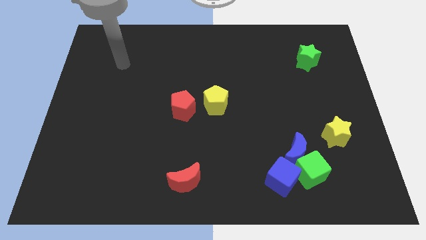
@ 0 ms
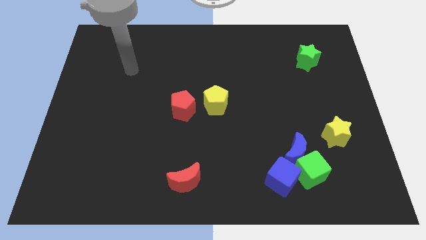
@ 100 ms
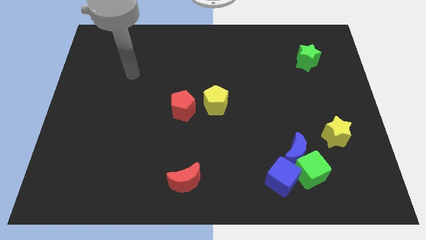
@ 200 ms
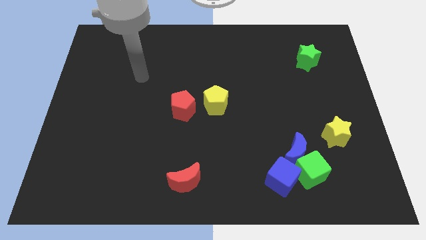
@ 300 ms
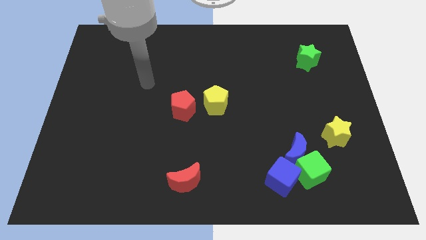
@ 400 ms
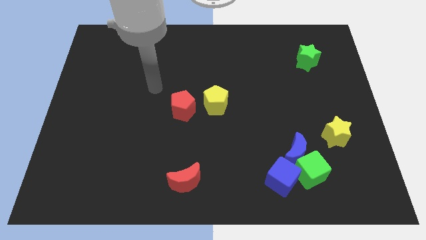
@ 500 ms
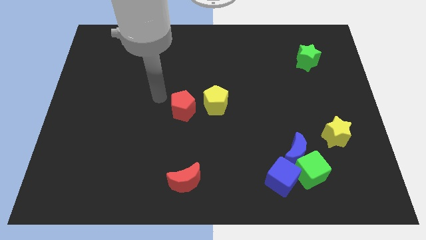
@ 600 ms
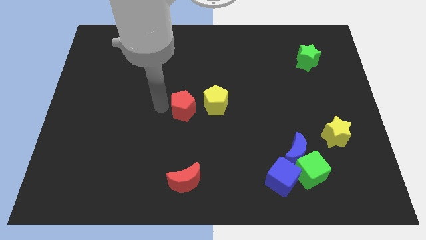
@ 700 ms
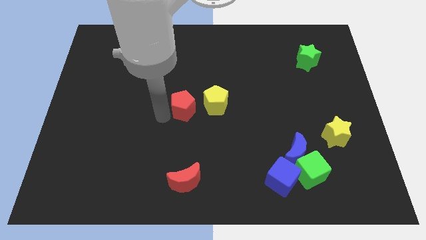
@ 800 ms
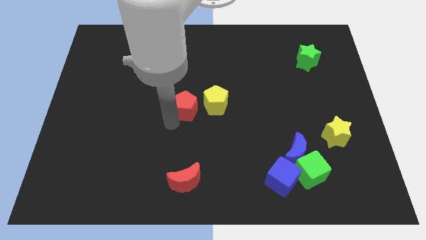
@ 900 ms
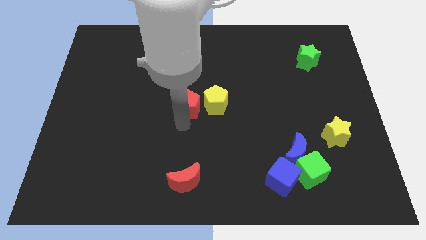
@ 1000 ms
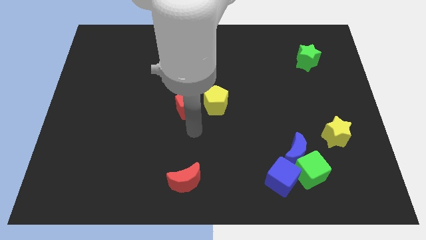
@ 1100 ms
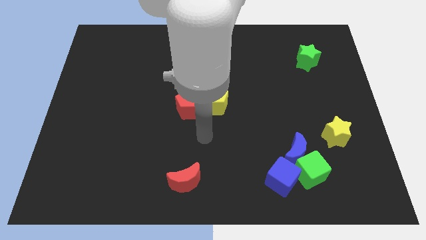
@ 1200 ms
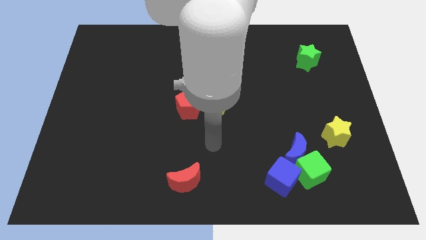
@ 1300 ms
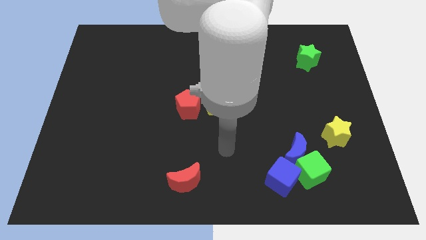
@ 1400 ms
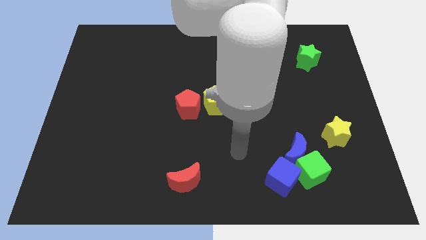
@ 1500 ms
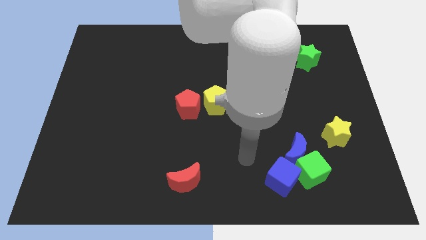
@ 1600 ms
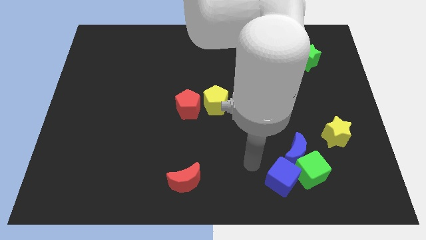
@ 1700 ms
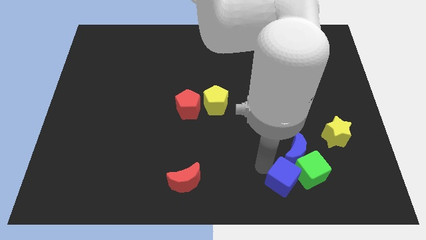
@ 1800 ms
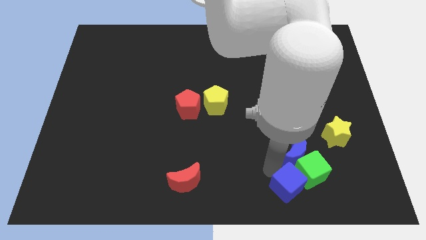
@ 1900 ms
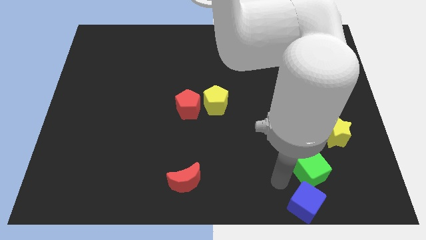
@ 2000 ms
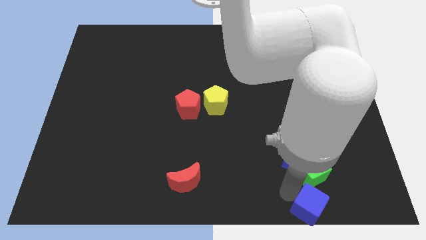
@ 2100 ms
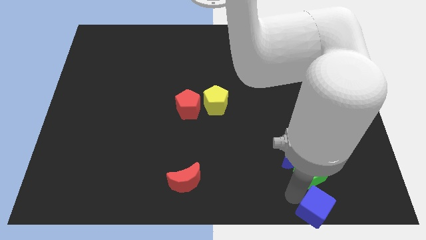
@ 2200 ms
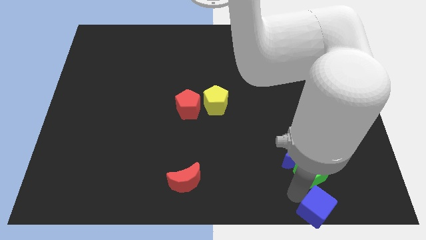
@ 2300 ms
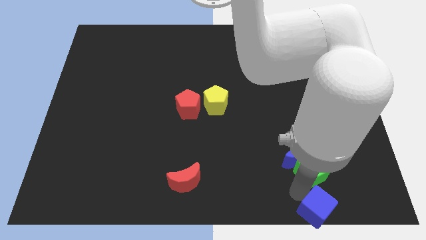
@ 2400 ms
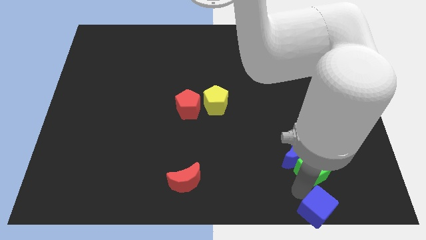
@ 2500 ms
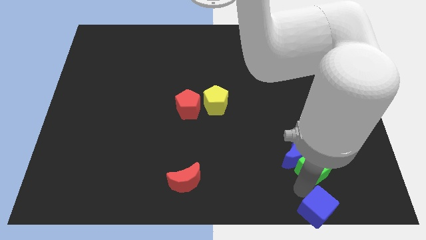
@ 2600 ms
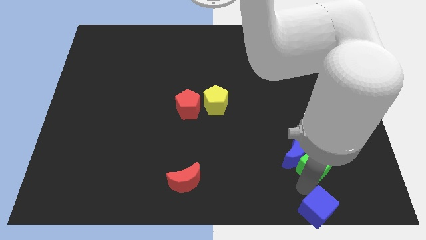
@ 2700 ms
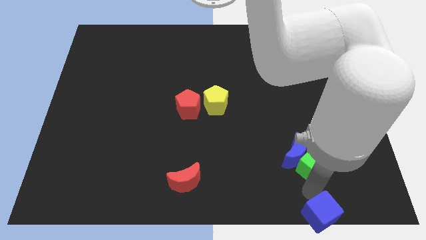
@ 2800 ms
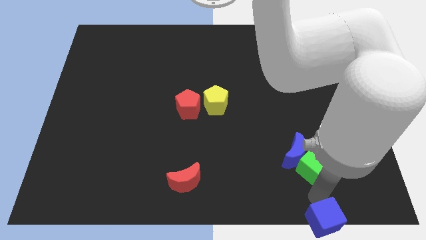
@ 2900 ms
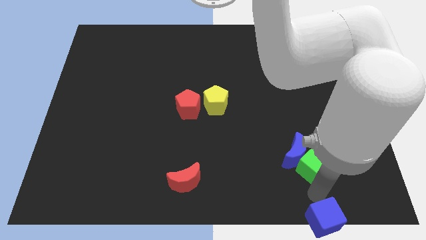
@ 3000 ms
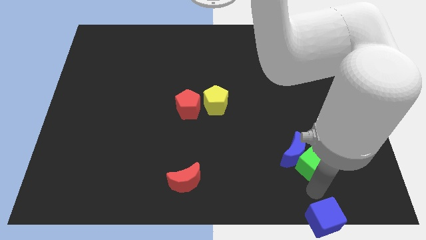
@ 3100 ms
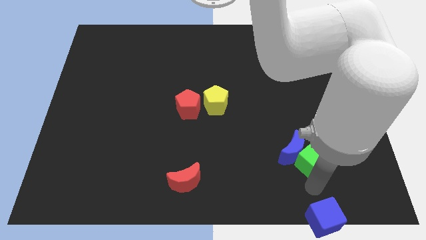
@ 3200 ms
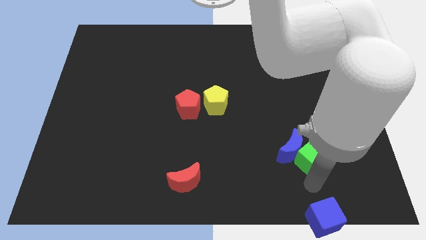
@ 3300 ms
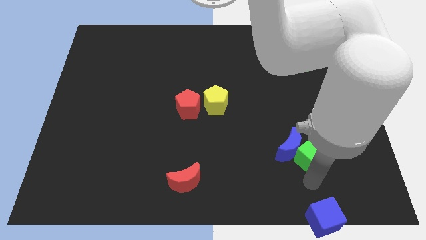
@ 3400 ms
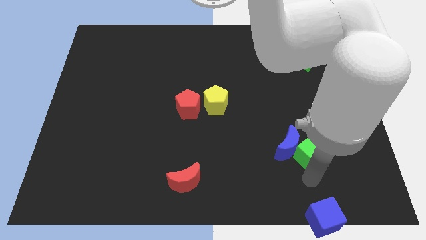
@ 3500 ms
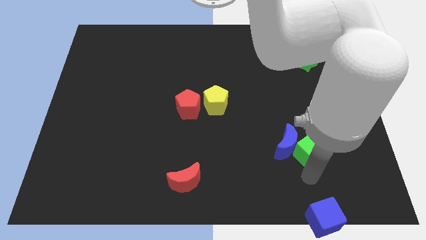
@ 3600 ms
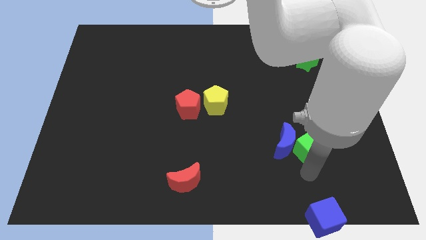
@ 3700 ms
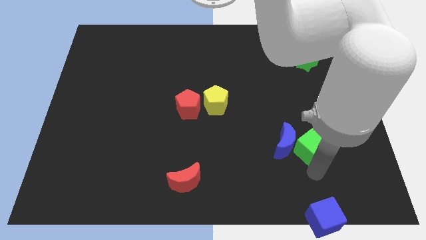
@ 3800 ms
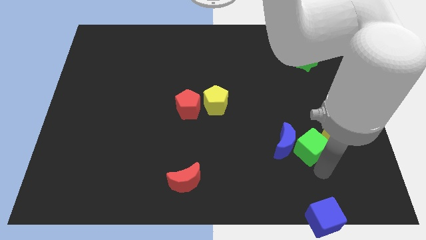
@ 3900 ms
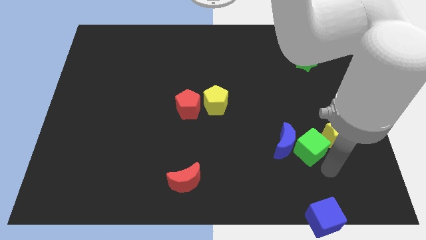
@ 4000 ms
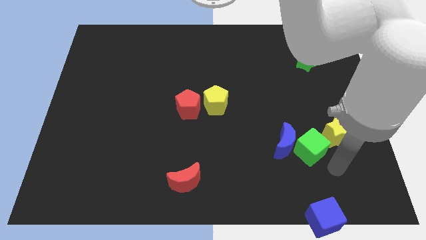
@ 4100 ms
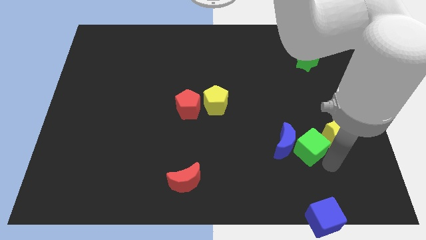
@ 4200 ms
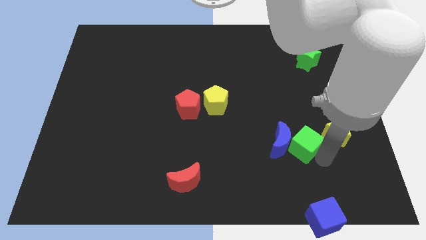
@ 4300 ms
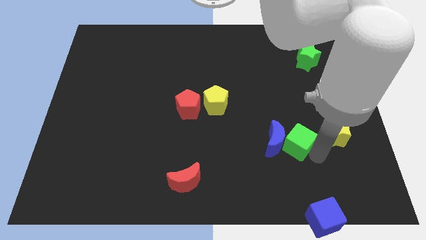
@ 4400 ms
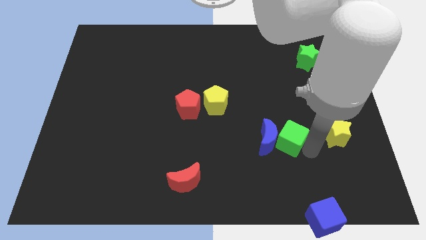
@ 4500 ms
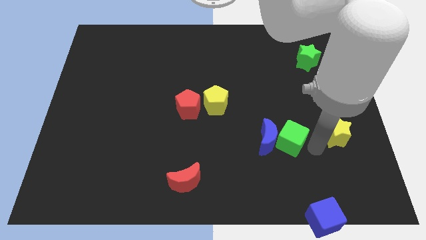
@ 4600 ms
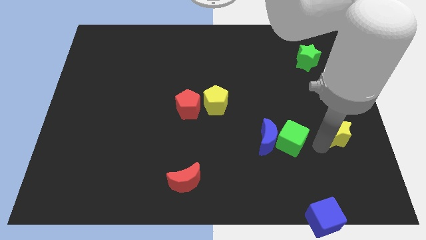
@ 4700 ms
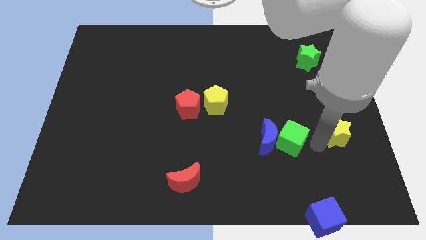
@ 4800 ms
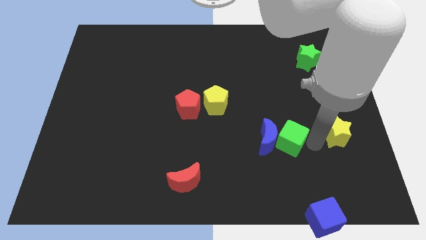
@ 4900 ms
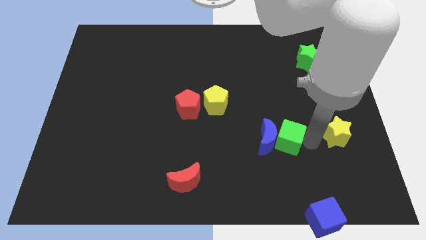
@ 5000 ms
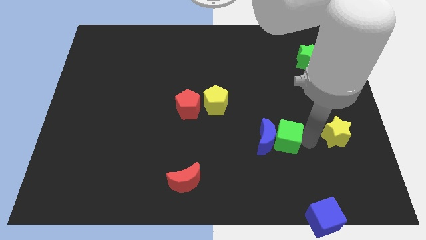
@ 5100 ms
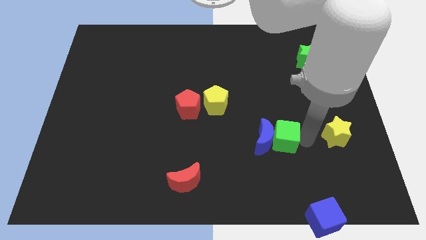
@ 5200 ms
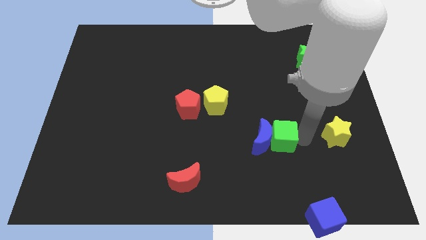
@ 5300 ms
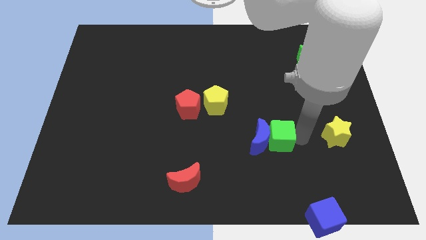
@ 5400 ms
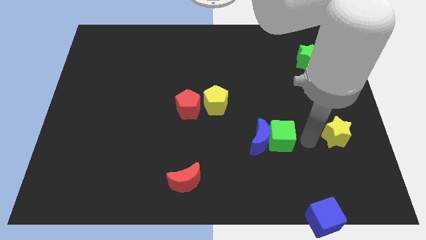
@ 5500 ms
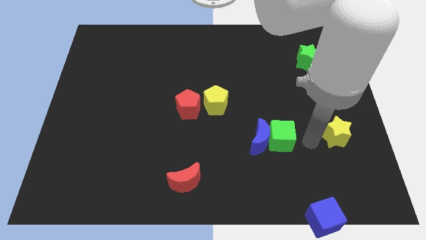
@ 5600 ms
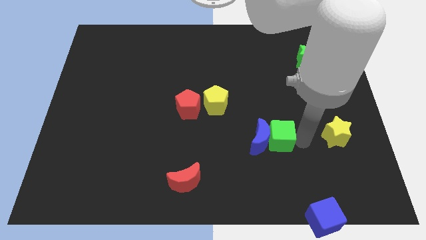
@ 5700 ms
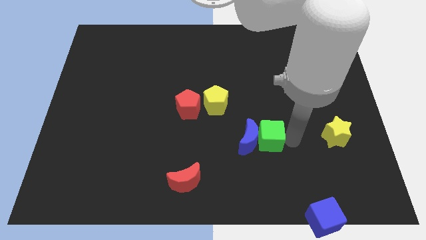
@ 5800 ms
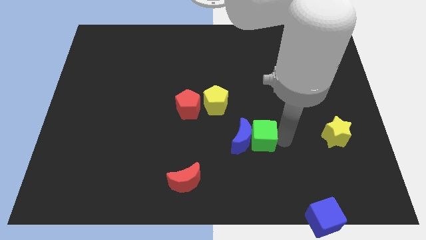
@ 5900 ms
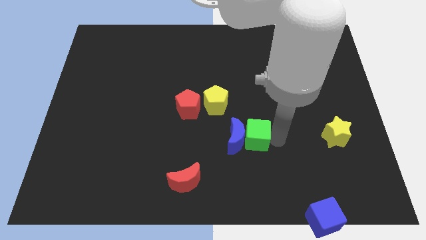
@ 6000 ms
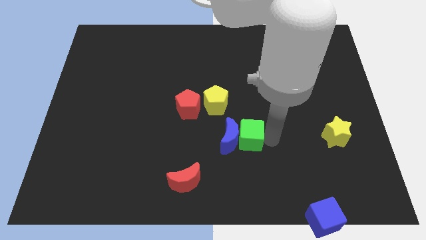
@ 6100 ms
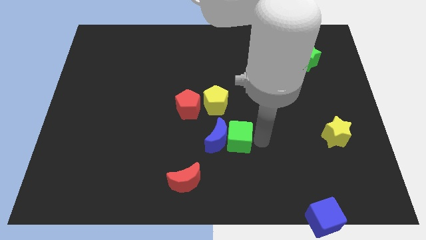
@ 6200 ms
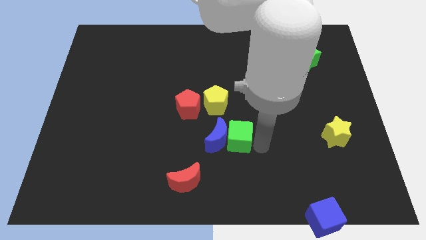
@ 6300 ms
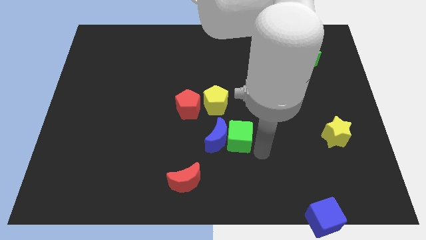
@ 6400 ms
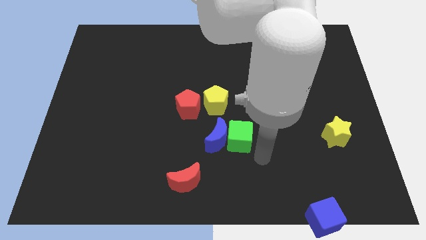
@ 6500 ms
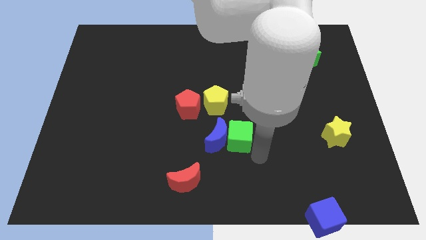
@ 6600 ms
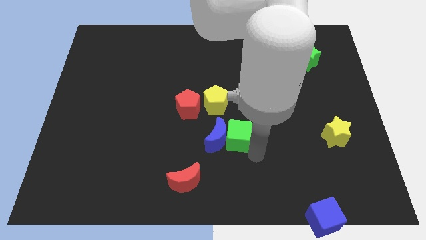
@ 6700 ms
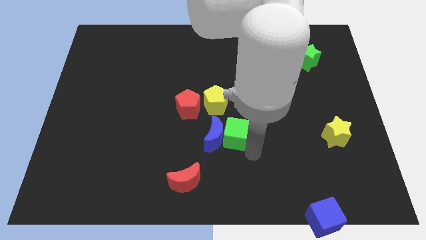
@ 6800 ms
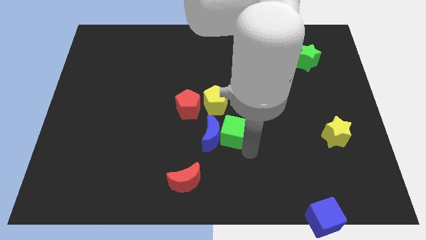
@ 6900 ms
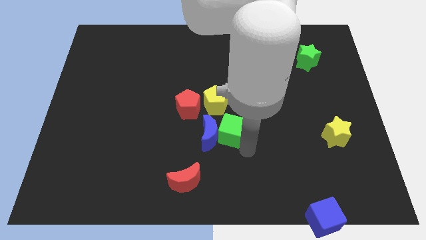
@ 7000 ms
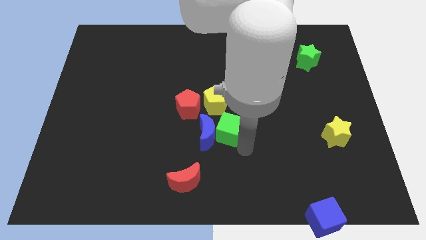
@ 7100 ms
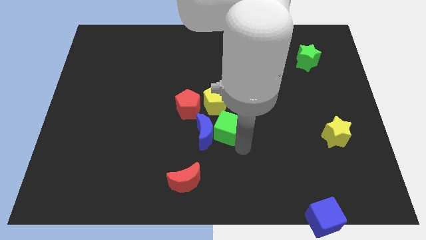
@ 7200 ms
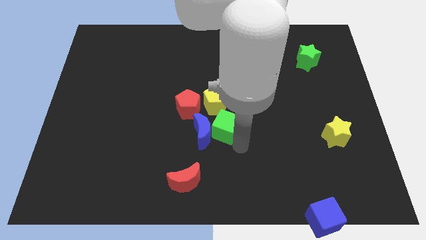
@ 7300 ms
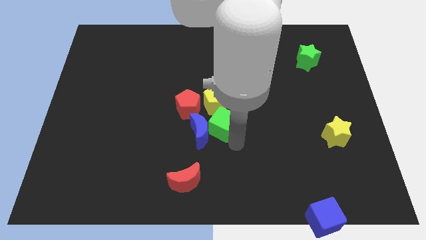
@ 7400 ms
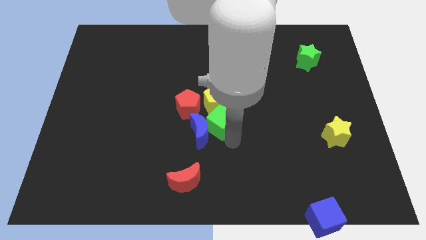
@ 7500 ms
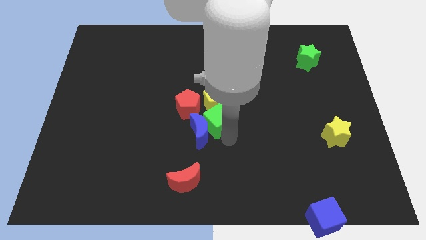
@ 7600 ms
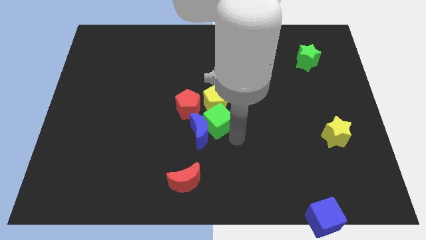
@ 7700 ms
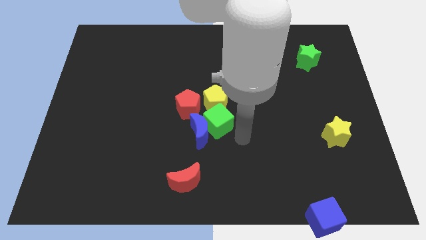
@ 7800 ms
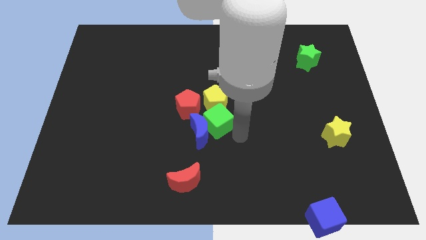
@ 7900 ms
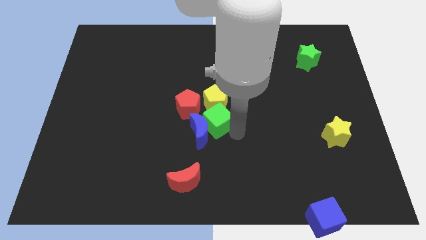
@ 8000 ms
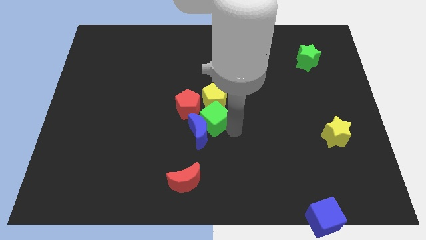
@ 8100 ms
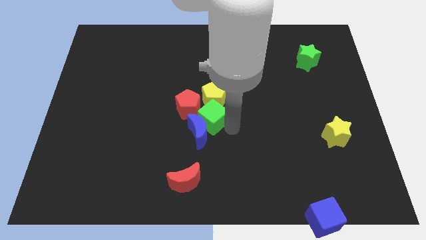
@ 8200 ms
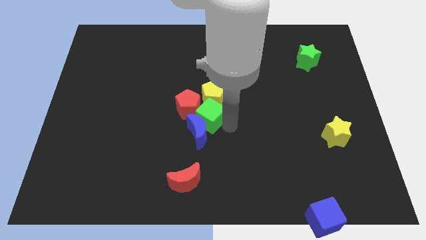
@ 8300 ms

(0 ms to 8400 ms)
slide the green cube towards the red pentagon
